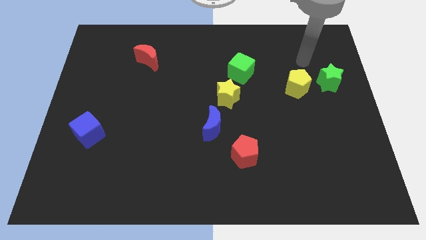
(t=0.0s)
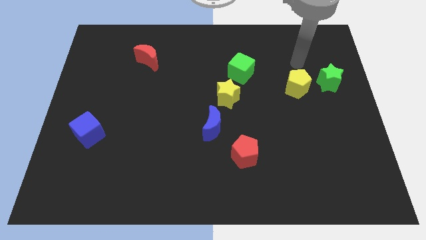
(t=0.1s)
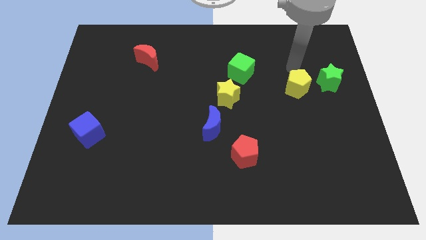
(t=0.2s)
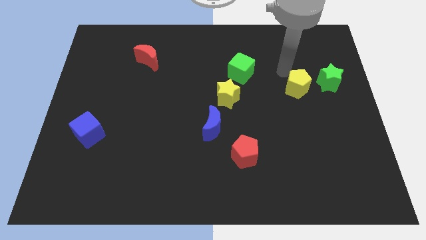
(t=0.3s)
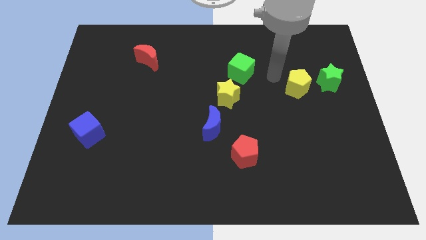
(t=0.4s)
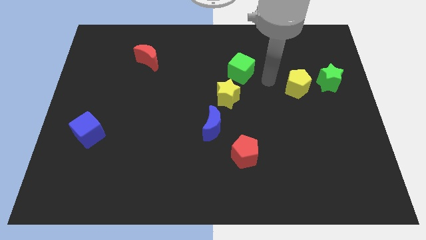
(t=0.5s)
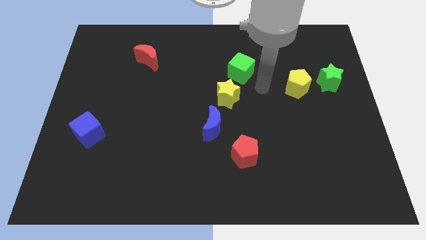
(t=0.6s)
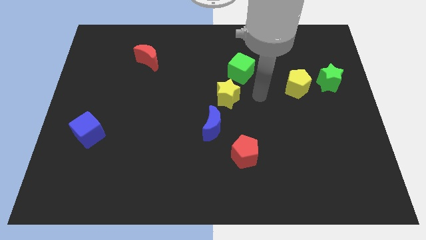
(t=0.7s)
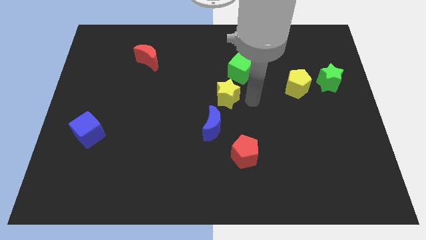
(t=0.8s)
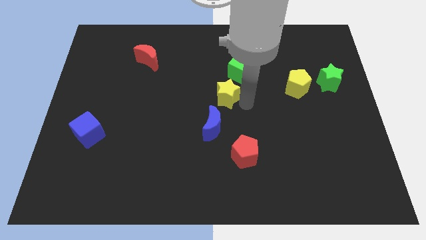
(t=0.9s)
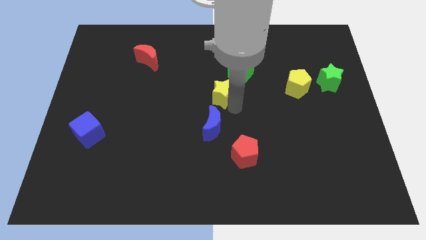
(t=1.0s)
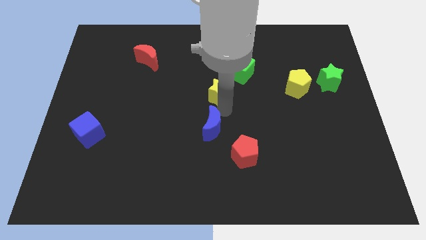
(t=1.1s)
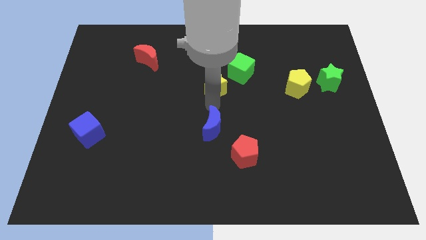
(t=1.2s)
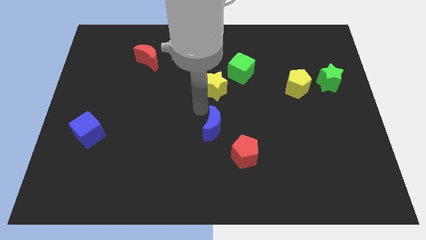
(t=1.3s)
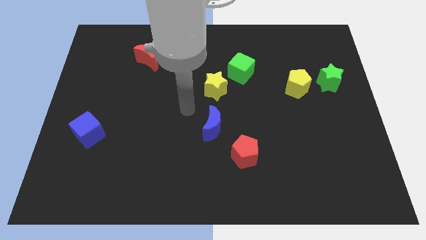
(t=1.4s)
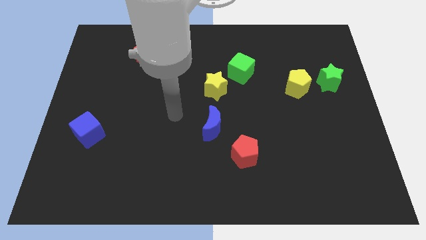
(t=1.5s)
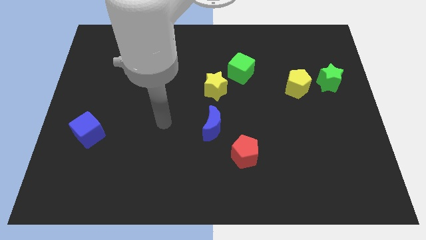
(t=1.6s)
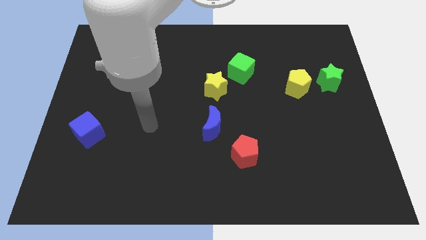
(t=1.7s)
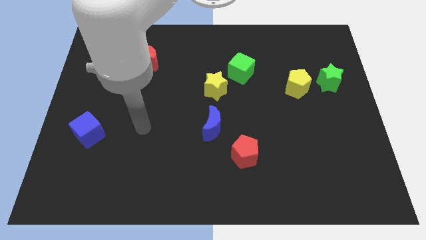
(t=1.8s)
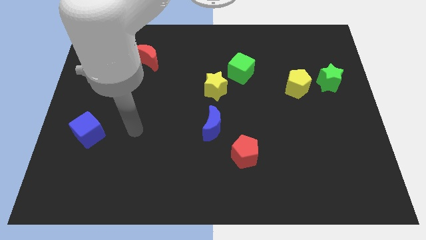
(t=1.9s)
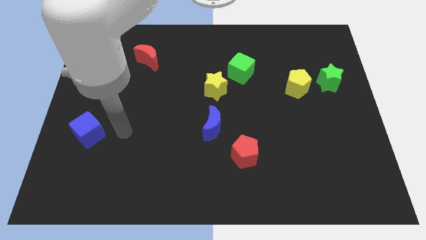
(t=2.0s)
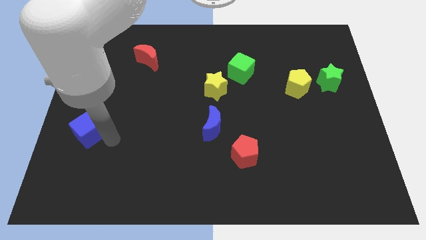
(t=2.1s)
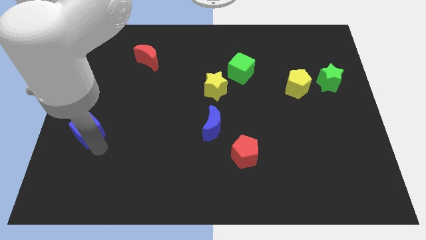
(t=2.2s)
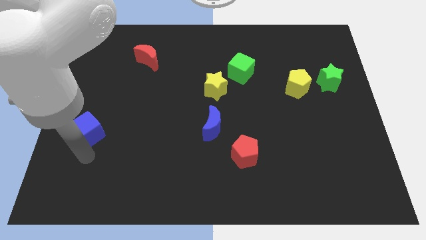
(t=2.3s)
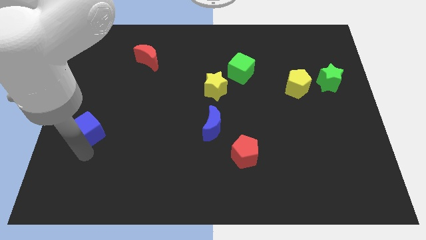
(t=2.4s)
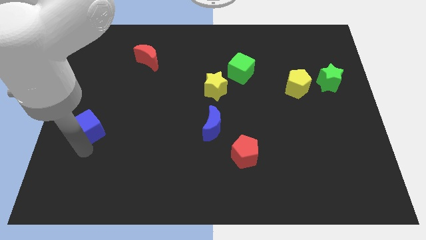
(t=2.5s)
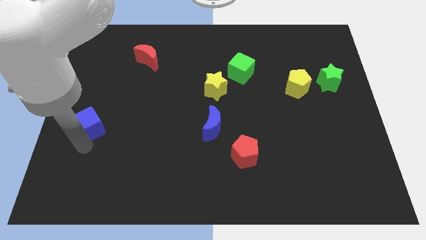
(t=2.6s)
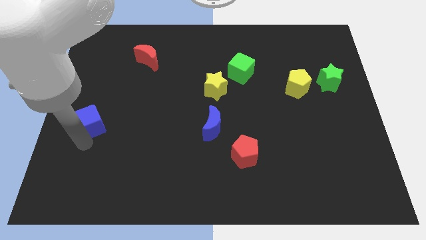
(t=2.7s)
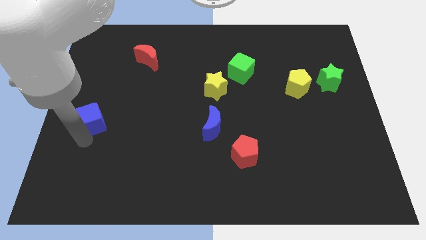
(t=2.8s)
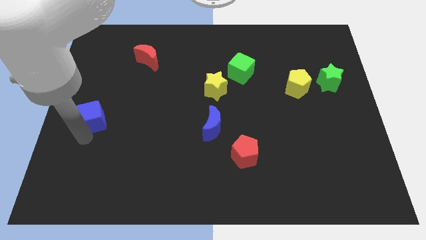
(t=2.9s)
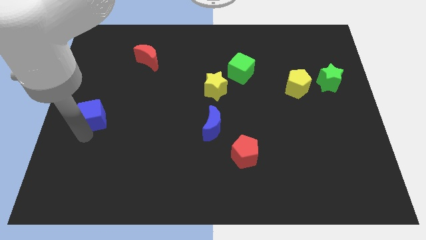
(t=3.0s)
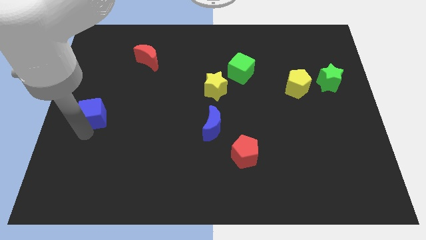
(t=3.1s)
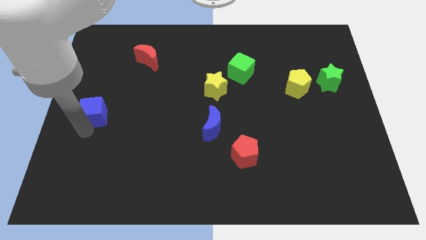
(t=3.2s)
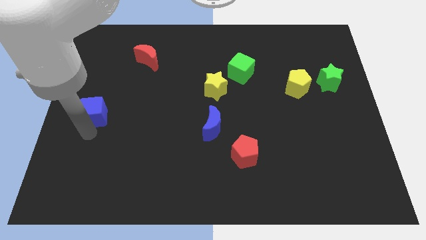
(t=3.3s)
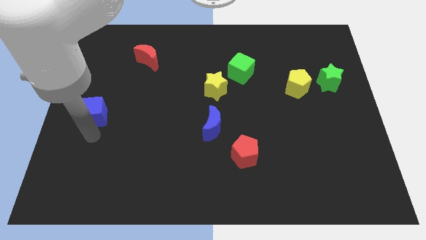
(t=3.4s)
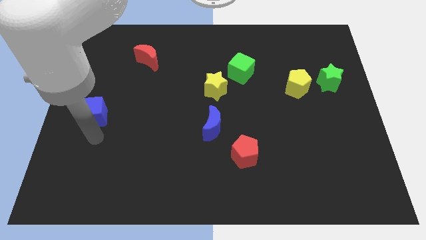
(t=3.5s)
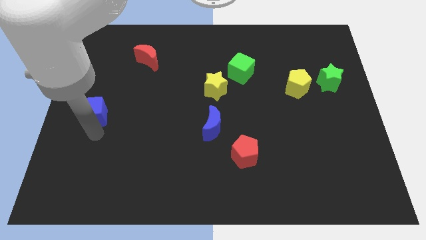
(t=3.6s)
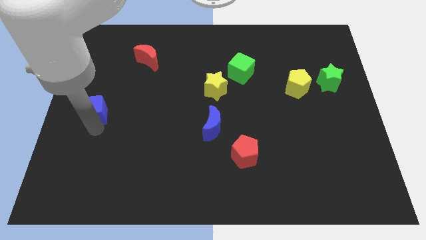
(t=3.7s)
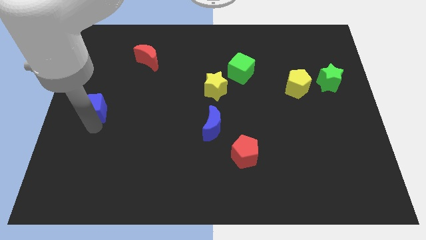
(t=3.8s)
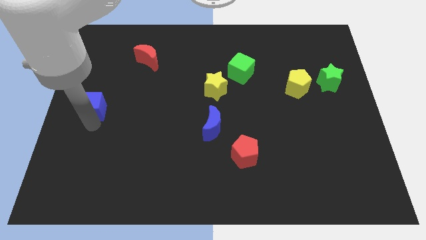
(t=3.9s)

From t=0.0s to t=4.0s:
move the blue cube upwards somewhat

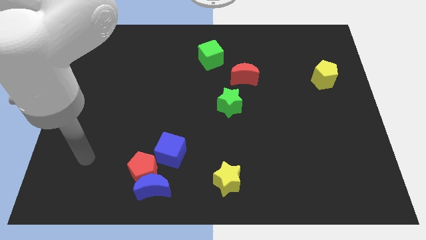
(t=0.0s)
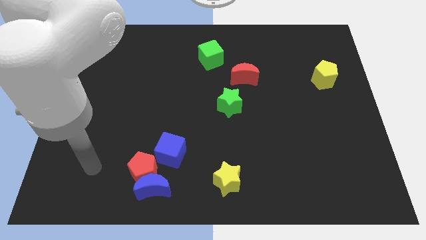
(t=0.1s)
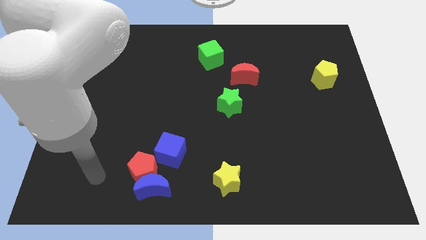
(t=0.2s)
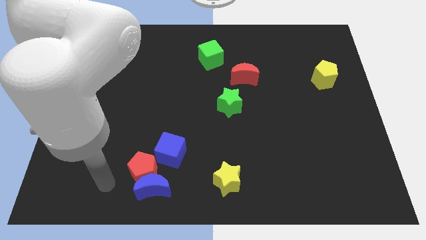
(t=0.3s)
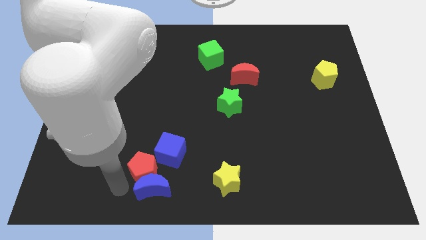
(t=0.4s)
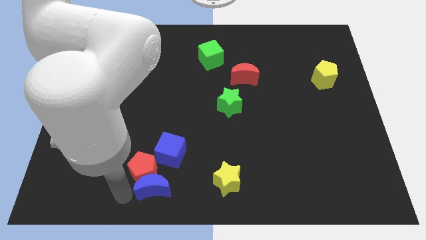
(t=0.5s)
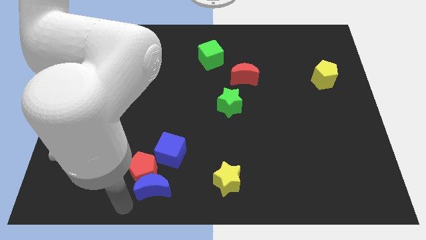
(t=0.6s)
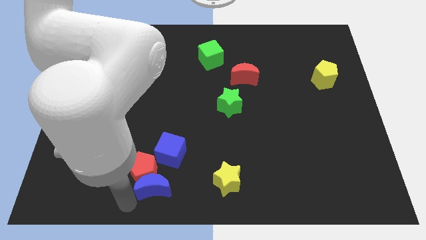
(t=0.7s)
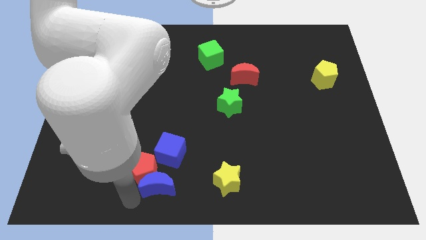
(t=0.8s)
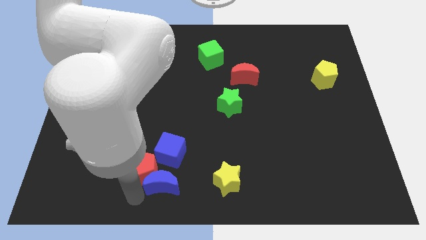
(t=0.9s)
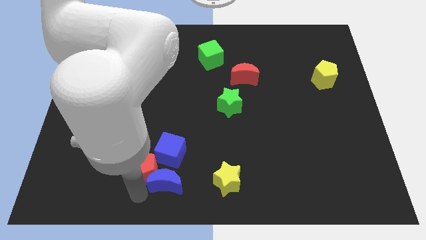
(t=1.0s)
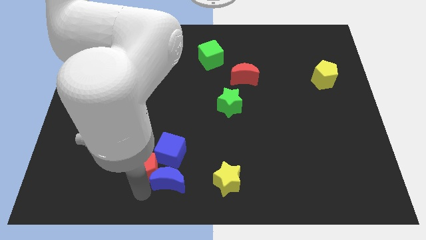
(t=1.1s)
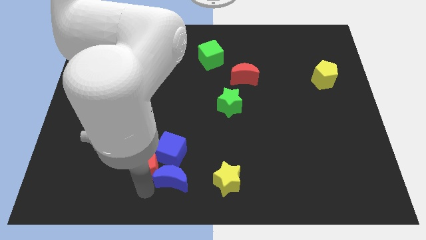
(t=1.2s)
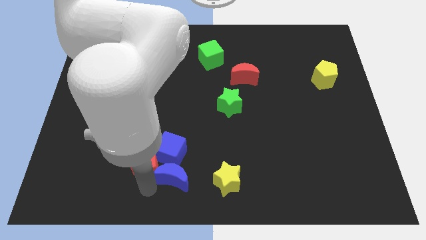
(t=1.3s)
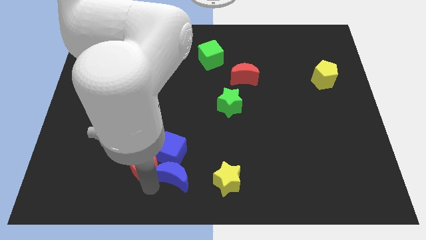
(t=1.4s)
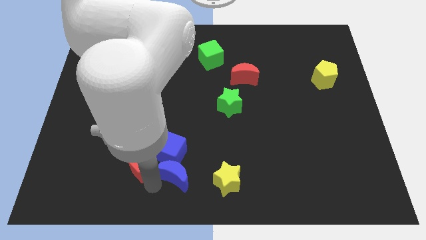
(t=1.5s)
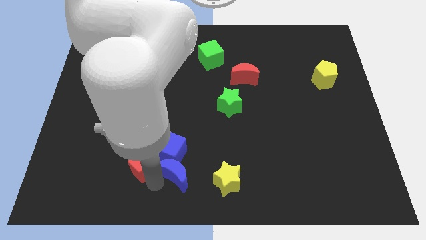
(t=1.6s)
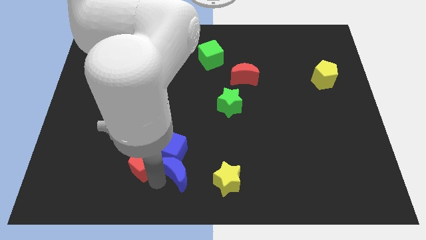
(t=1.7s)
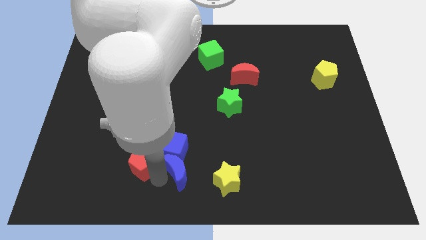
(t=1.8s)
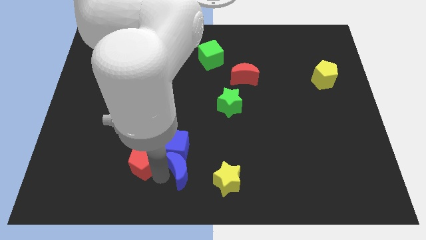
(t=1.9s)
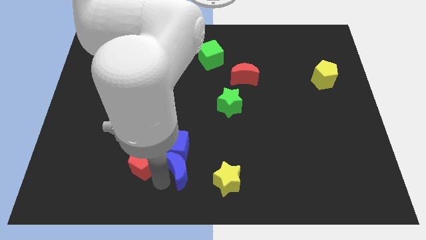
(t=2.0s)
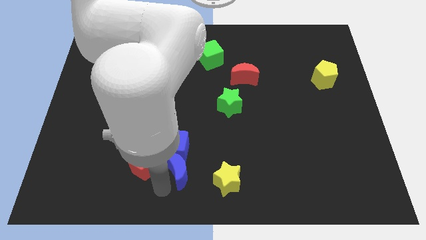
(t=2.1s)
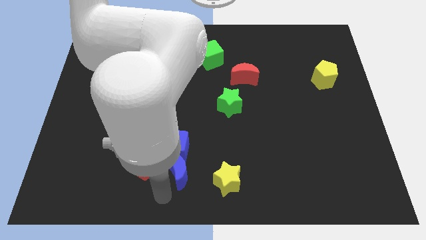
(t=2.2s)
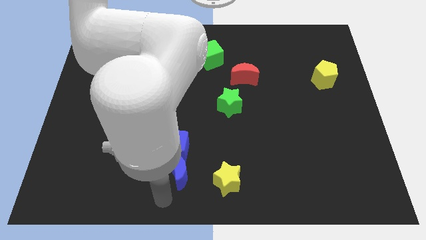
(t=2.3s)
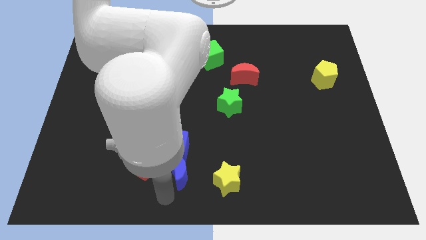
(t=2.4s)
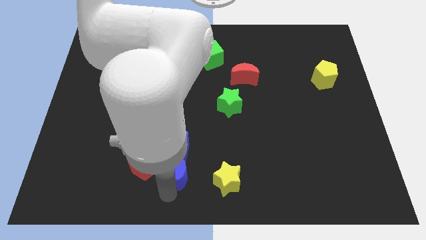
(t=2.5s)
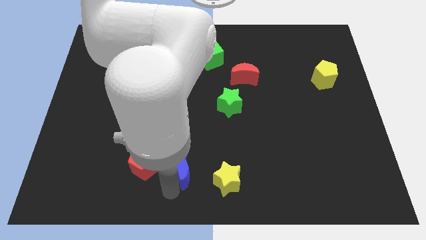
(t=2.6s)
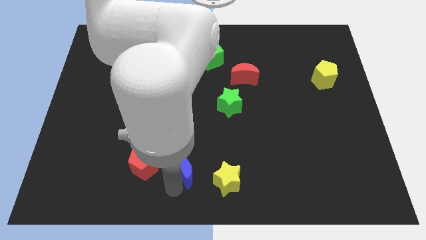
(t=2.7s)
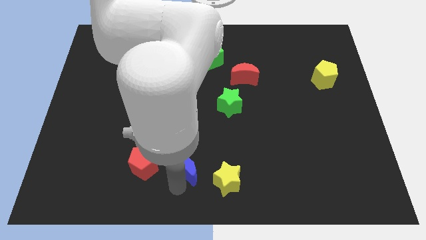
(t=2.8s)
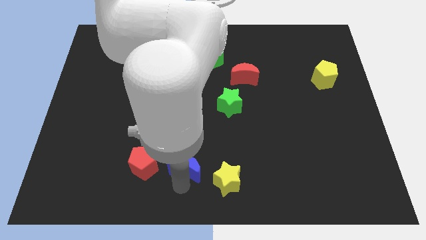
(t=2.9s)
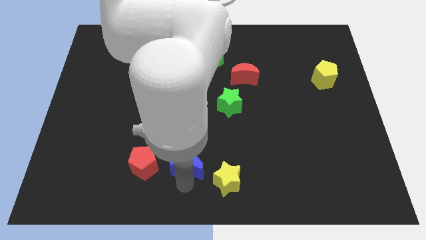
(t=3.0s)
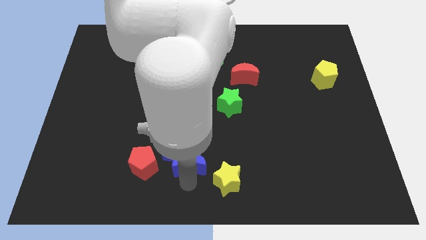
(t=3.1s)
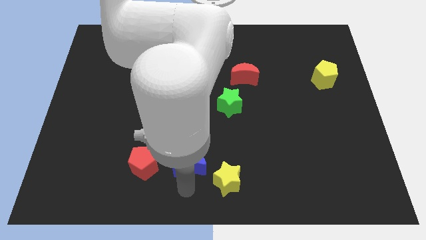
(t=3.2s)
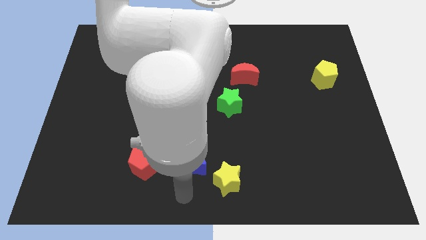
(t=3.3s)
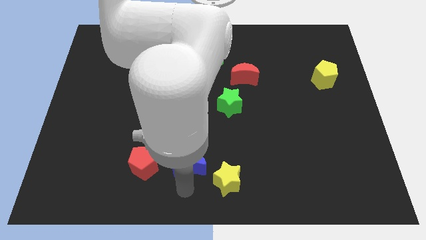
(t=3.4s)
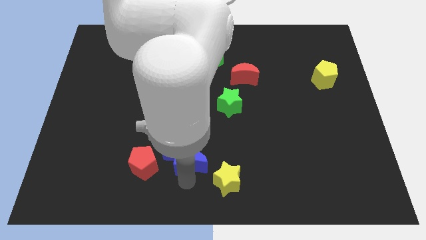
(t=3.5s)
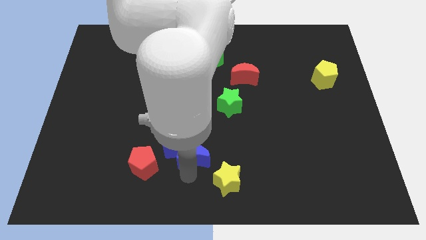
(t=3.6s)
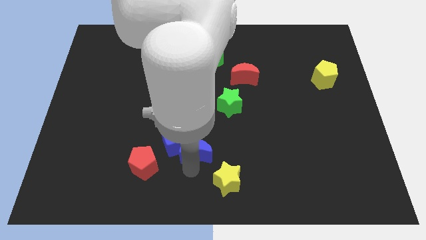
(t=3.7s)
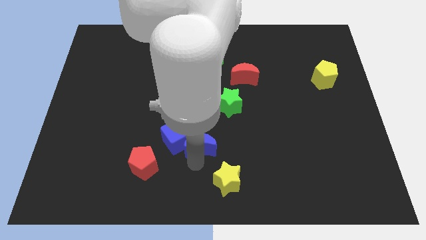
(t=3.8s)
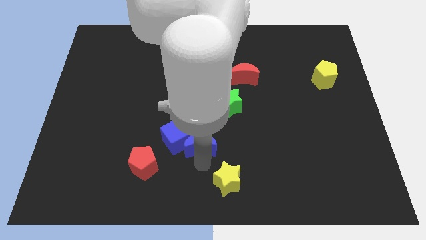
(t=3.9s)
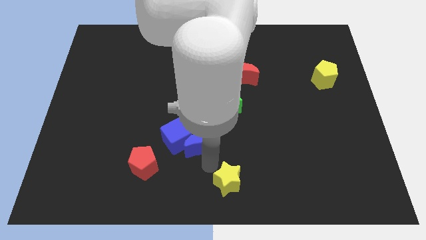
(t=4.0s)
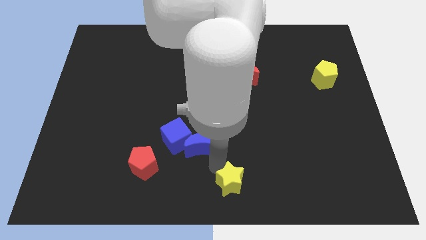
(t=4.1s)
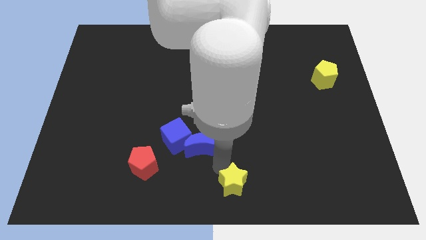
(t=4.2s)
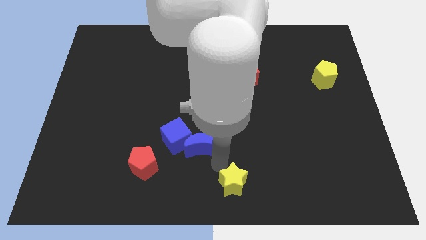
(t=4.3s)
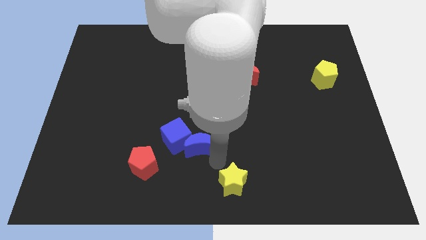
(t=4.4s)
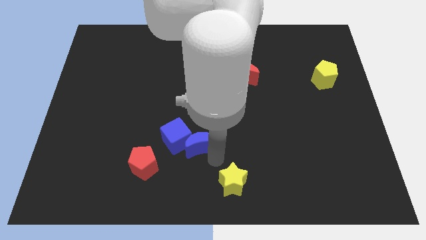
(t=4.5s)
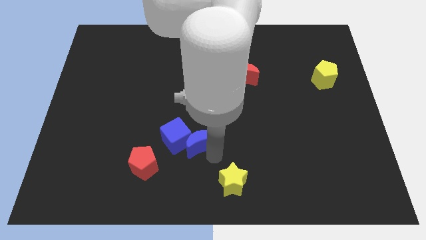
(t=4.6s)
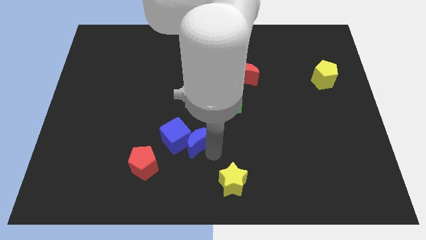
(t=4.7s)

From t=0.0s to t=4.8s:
slightly push the blue moon upwards
